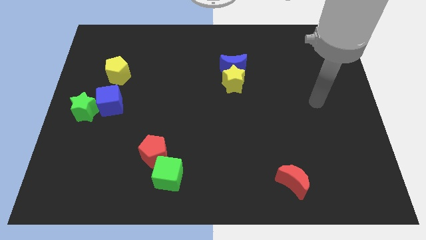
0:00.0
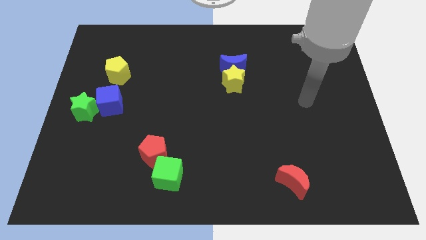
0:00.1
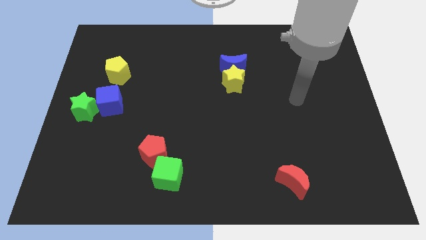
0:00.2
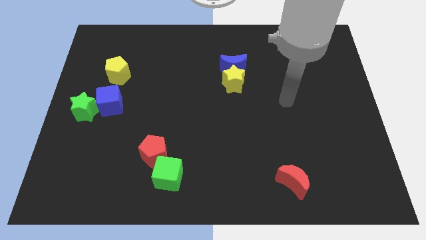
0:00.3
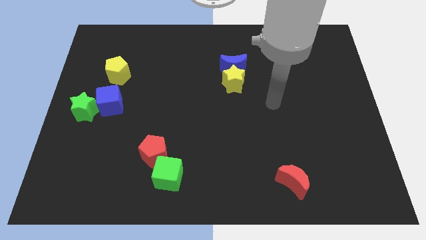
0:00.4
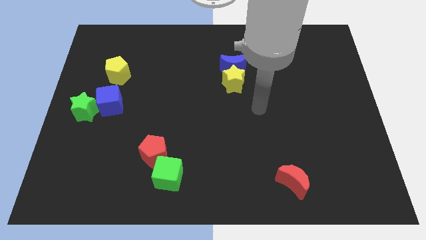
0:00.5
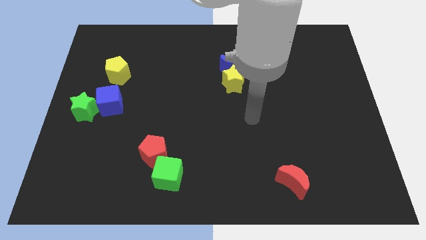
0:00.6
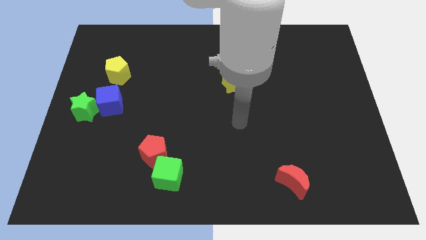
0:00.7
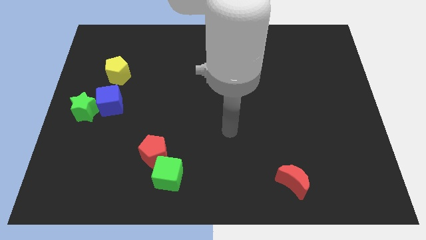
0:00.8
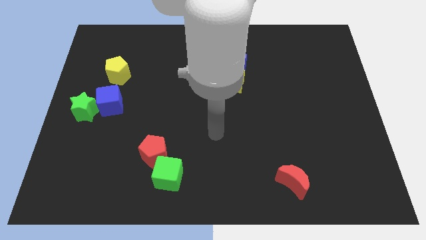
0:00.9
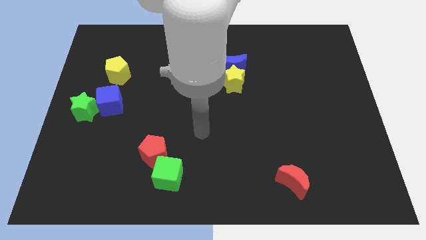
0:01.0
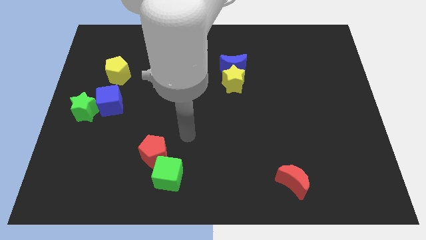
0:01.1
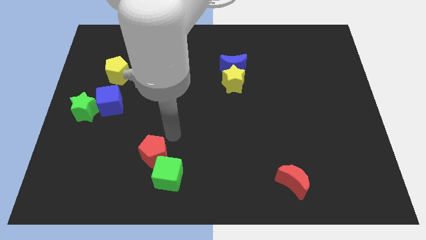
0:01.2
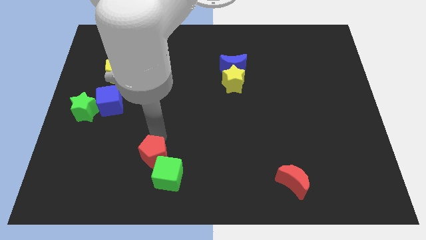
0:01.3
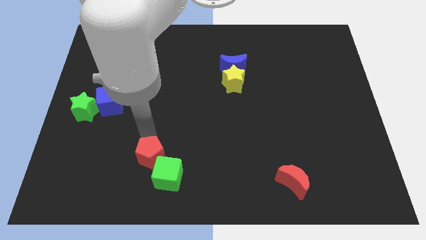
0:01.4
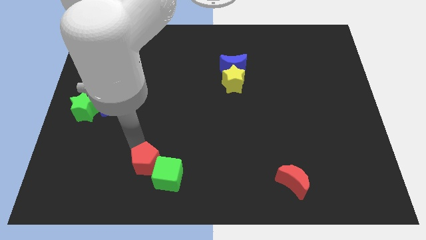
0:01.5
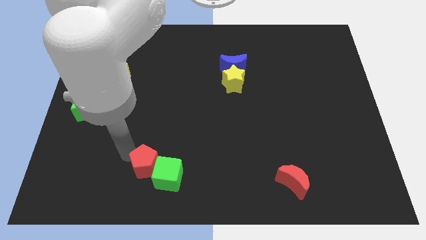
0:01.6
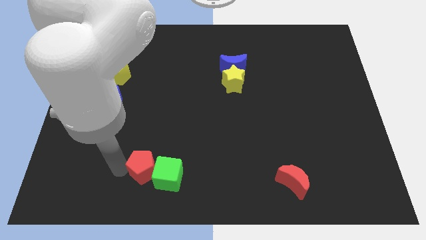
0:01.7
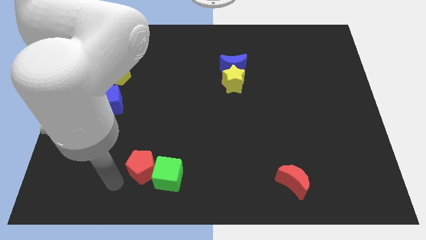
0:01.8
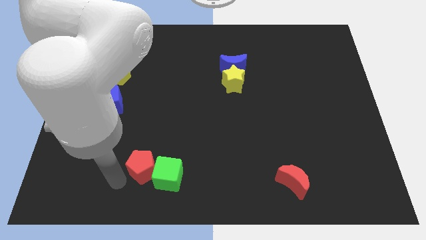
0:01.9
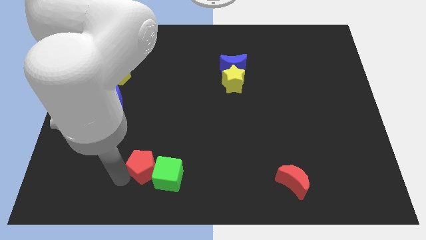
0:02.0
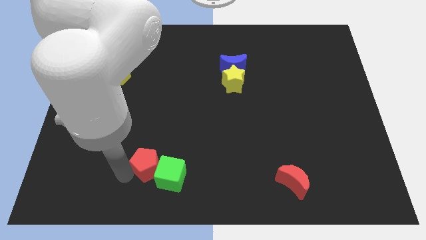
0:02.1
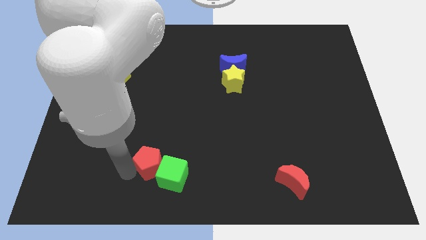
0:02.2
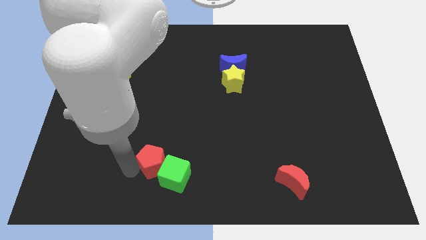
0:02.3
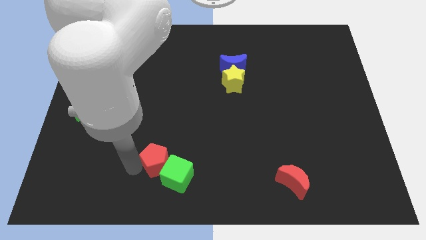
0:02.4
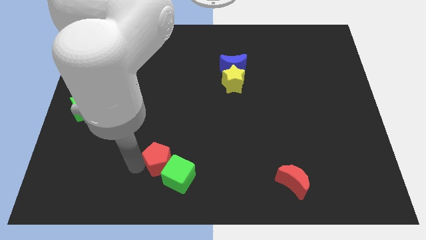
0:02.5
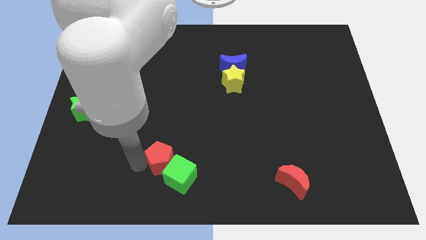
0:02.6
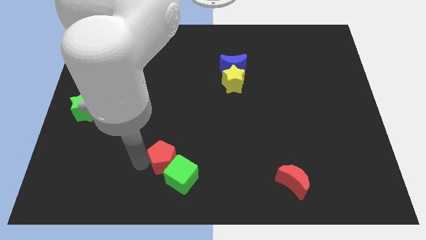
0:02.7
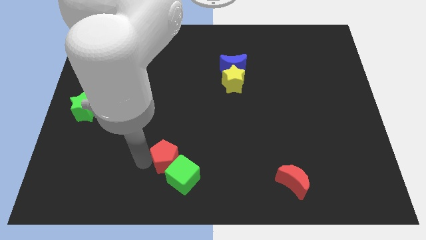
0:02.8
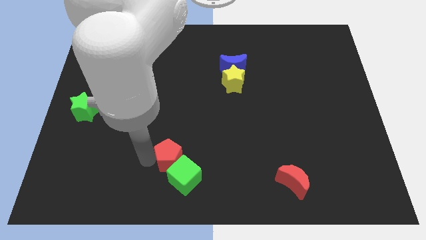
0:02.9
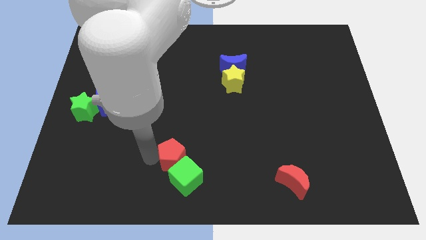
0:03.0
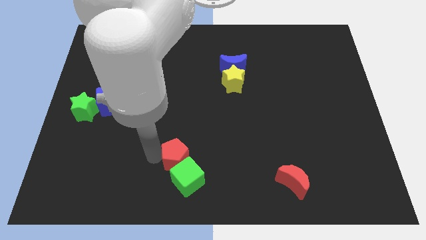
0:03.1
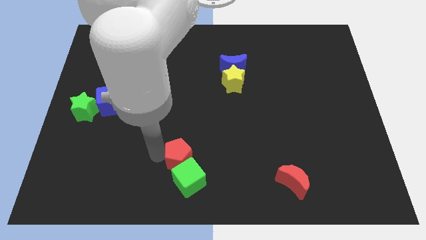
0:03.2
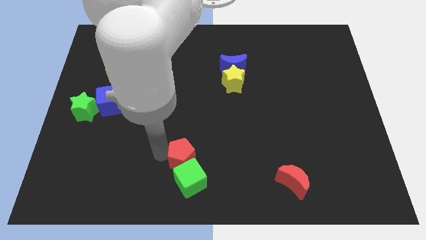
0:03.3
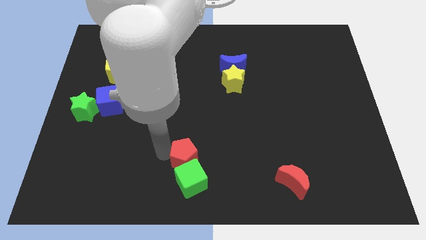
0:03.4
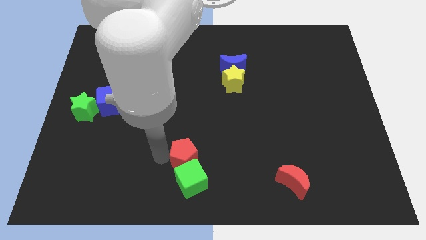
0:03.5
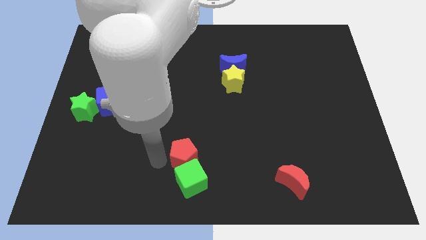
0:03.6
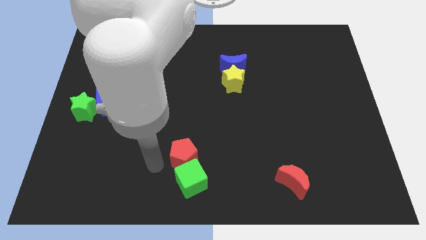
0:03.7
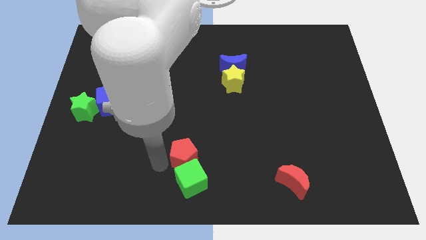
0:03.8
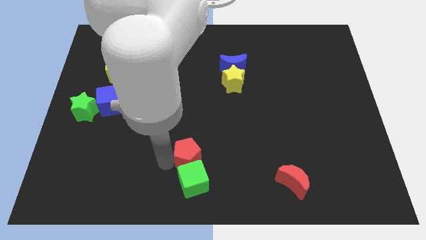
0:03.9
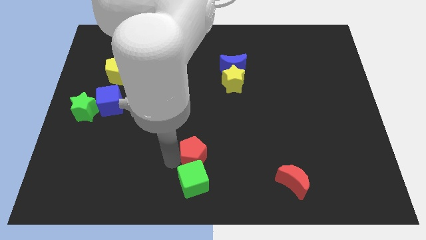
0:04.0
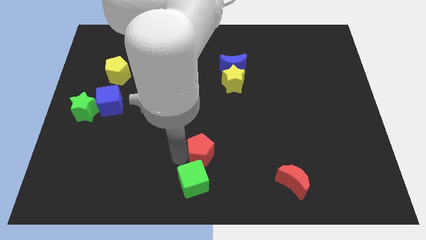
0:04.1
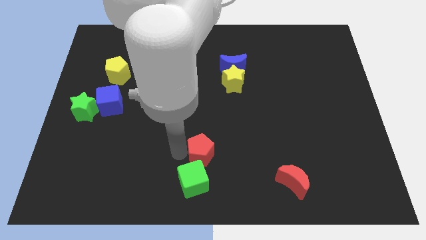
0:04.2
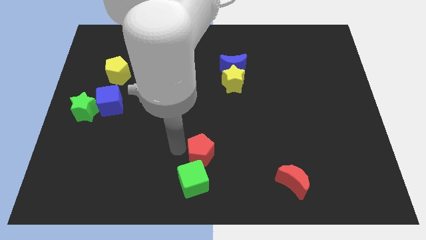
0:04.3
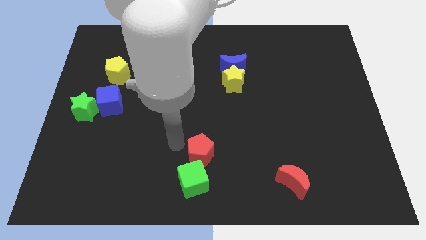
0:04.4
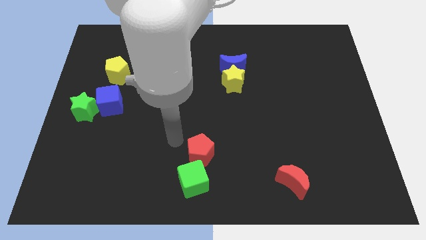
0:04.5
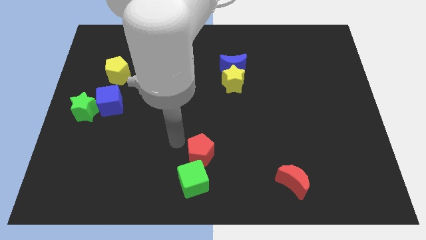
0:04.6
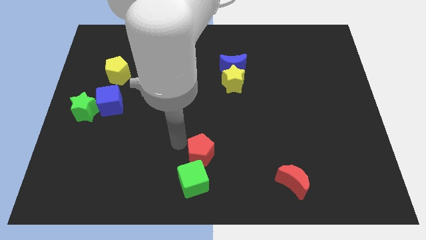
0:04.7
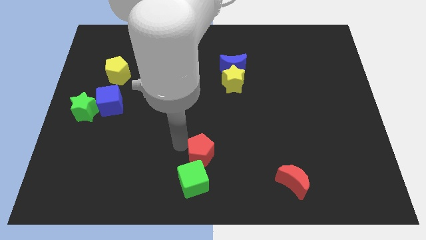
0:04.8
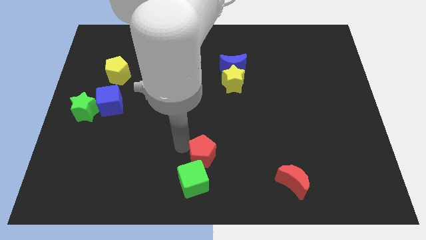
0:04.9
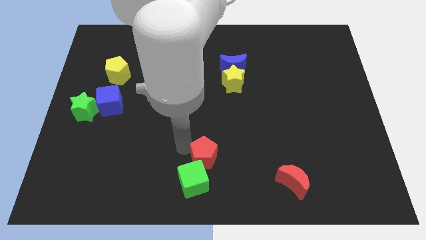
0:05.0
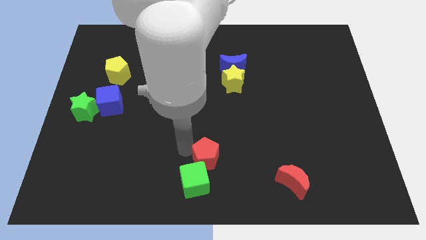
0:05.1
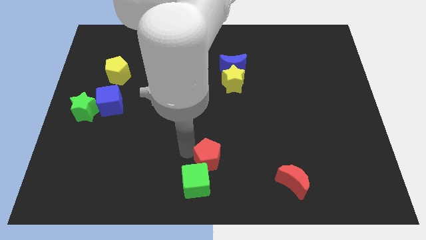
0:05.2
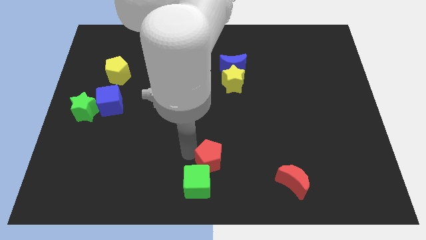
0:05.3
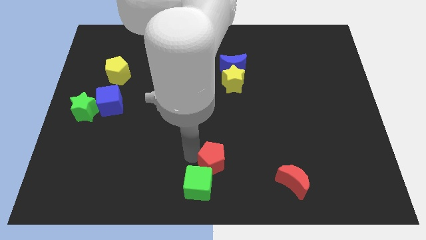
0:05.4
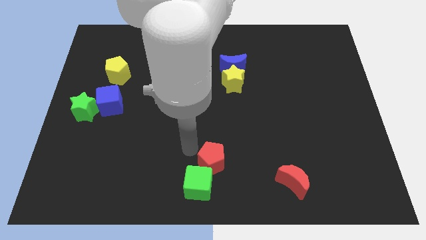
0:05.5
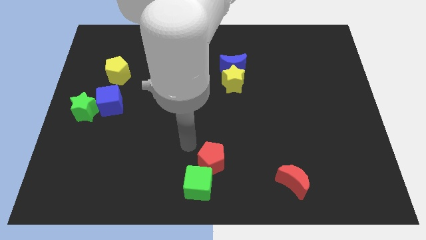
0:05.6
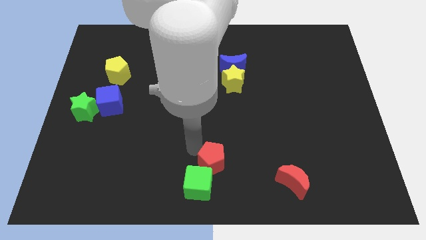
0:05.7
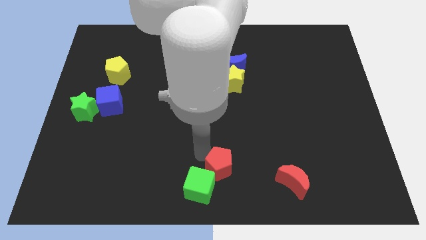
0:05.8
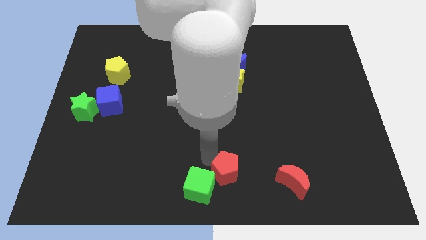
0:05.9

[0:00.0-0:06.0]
slide the red pentagon to the left side of the red moon

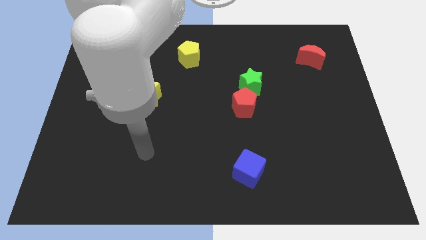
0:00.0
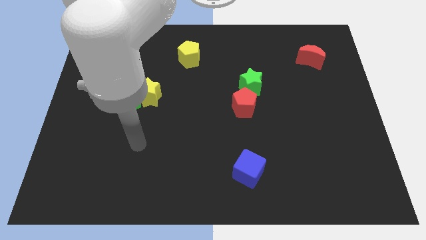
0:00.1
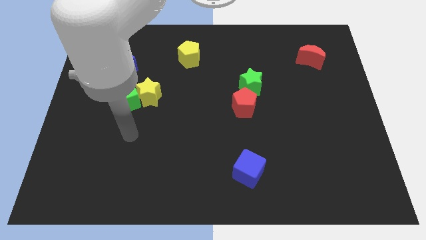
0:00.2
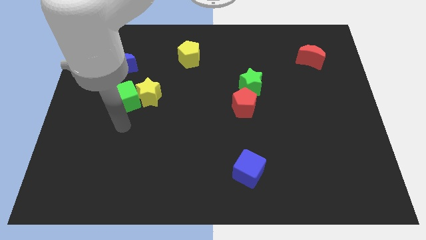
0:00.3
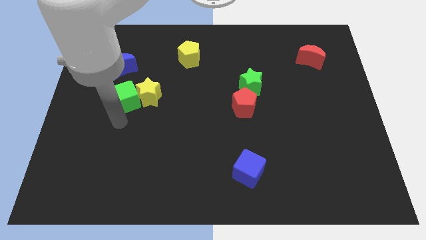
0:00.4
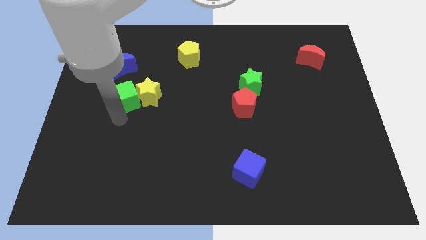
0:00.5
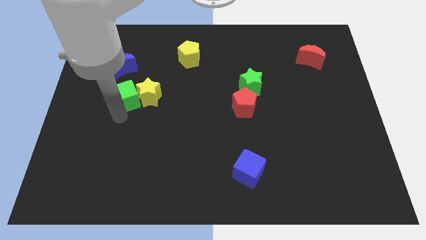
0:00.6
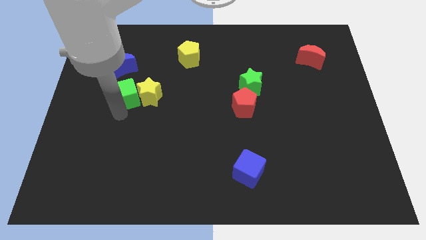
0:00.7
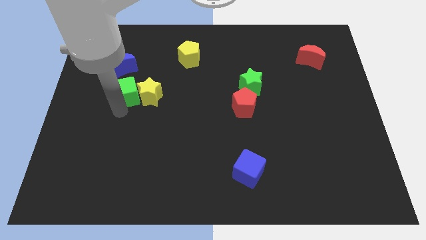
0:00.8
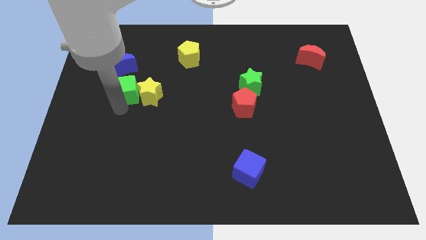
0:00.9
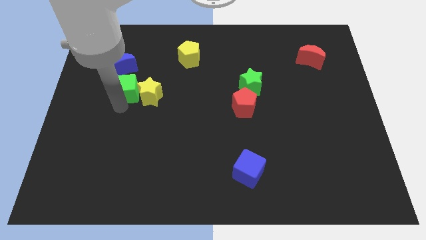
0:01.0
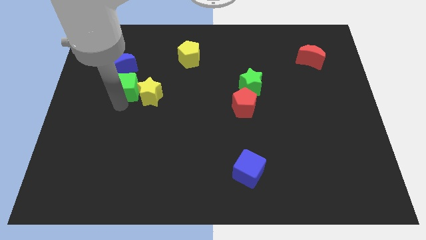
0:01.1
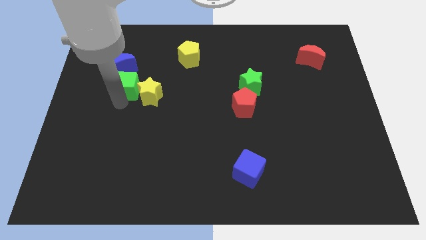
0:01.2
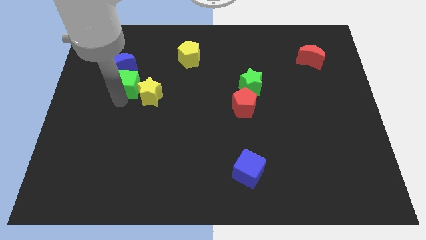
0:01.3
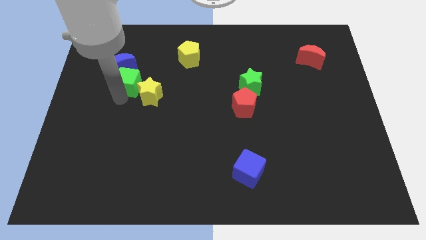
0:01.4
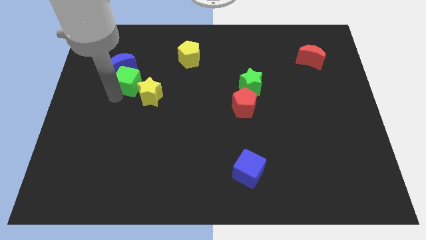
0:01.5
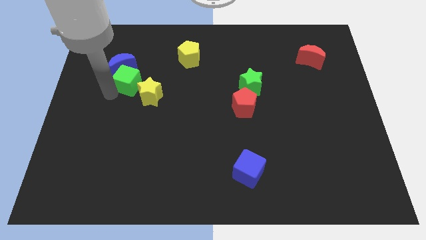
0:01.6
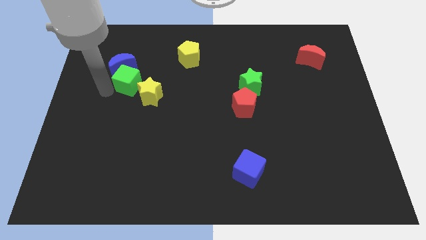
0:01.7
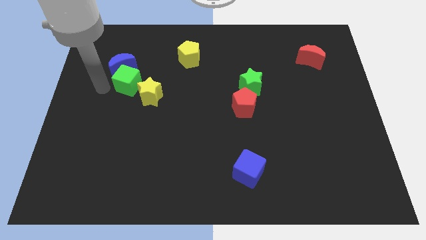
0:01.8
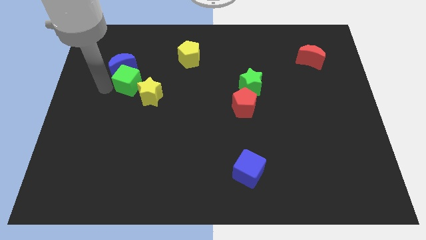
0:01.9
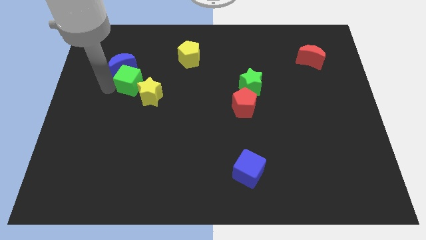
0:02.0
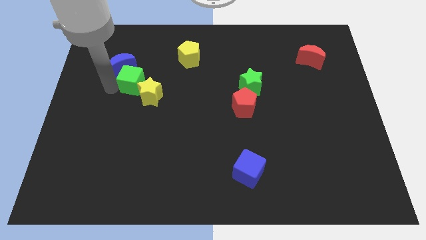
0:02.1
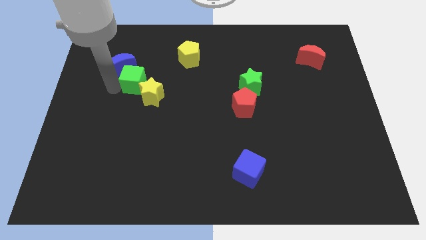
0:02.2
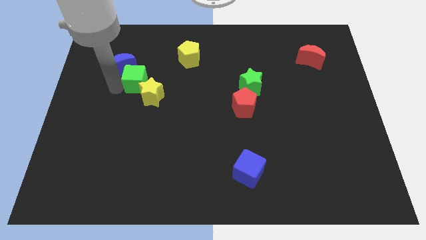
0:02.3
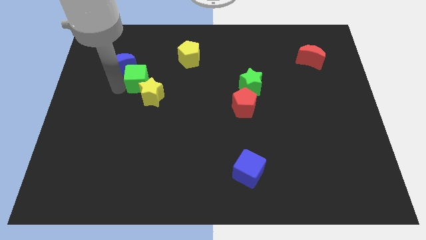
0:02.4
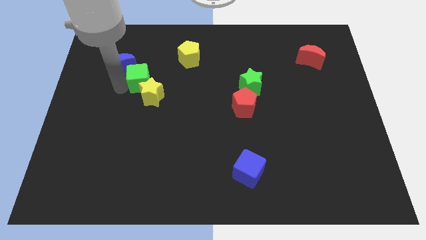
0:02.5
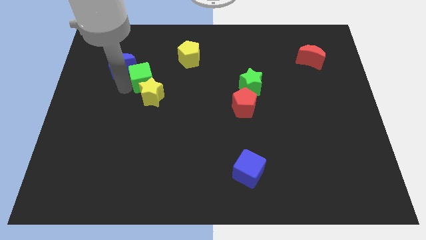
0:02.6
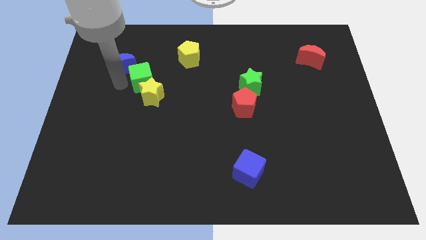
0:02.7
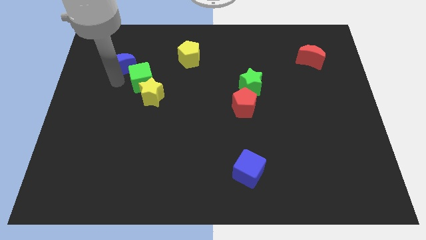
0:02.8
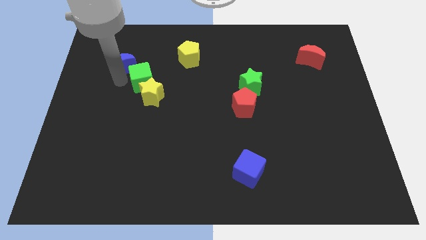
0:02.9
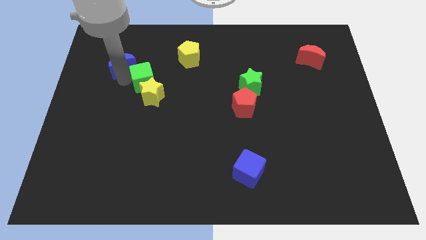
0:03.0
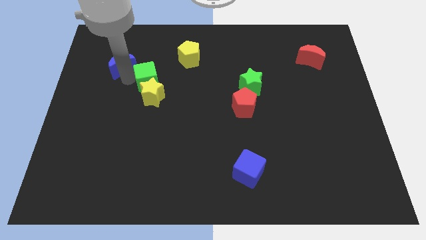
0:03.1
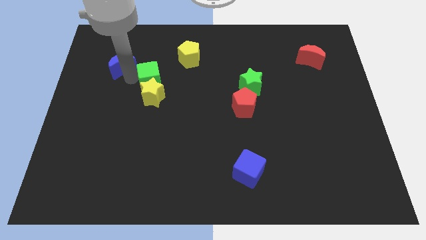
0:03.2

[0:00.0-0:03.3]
put the green cube to the top right side of the yellow star
